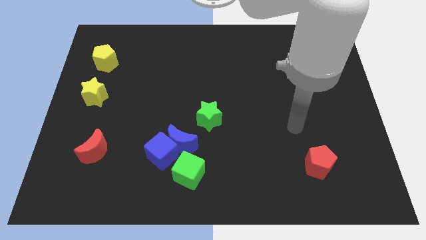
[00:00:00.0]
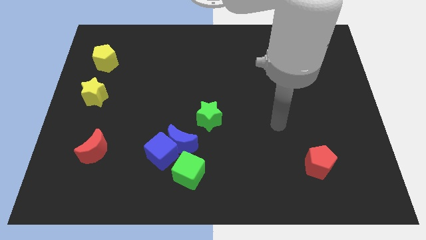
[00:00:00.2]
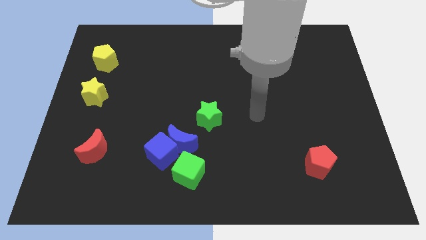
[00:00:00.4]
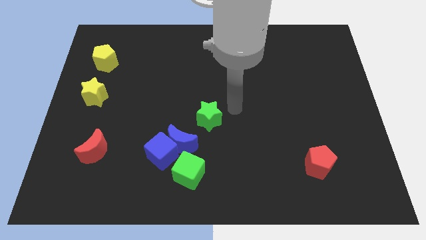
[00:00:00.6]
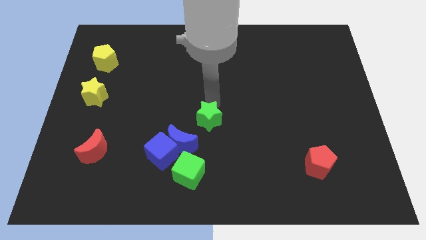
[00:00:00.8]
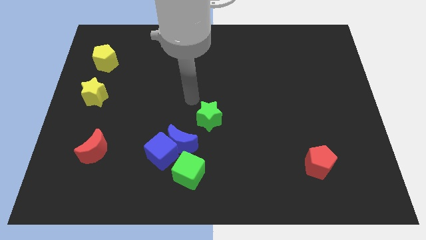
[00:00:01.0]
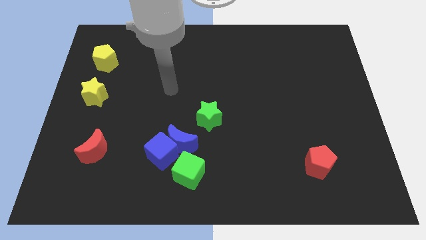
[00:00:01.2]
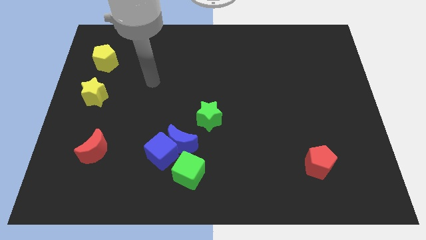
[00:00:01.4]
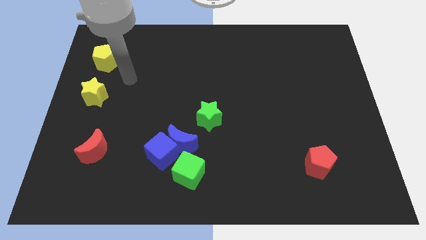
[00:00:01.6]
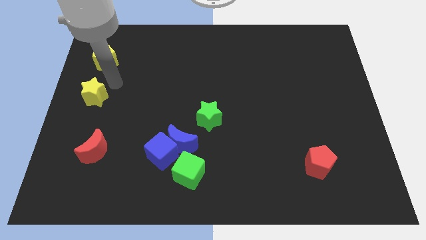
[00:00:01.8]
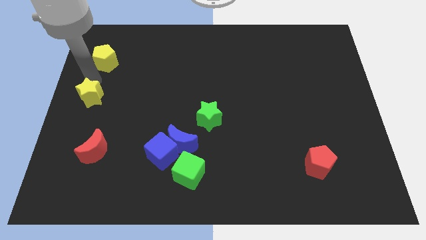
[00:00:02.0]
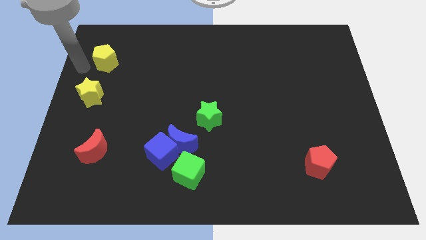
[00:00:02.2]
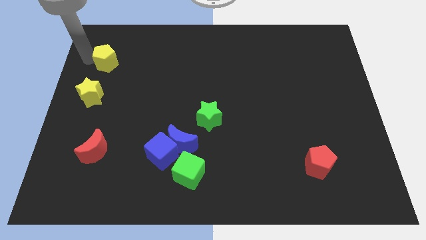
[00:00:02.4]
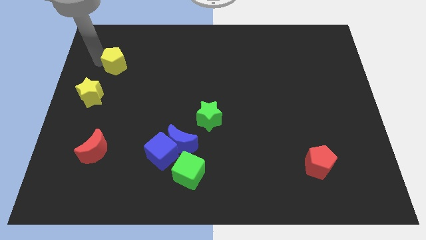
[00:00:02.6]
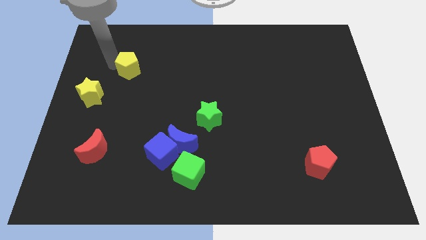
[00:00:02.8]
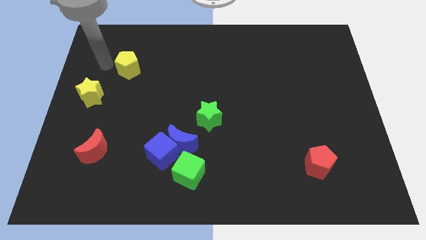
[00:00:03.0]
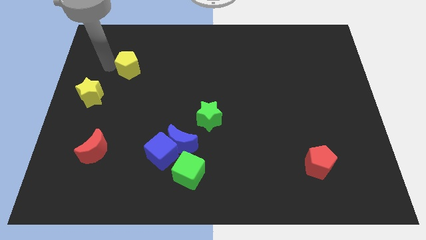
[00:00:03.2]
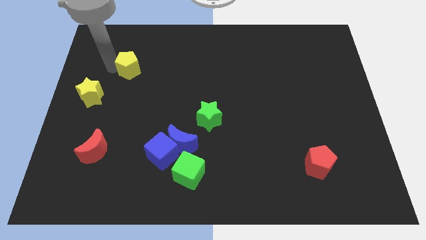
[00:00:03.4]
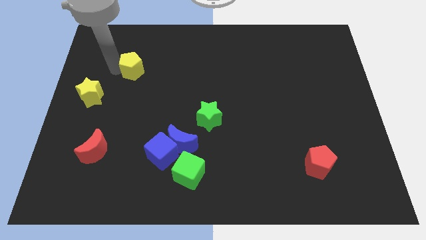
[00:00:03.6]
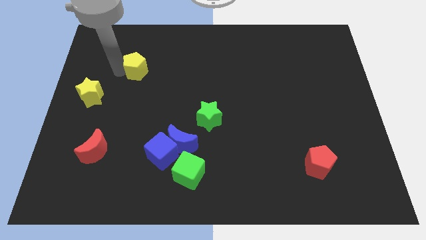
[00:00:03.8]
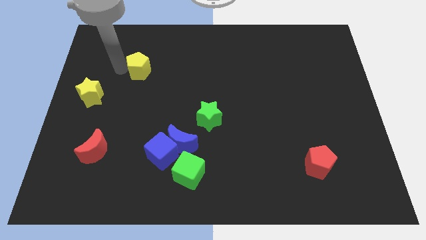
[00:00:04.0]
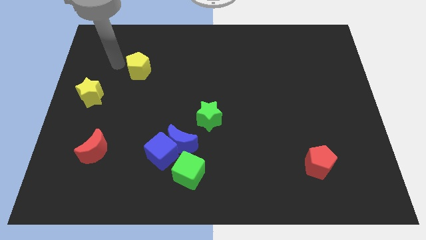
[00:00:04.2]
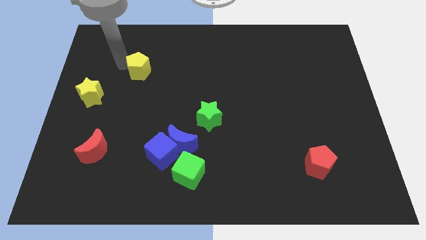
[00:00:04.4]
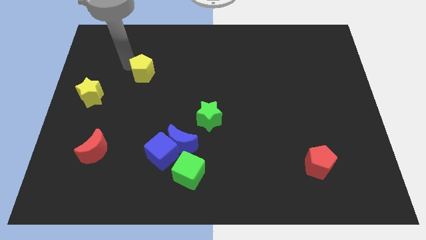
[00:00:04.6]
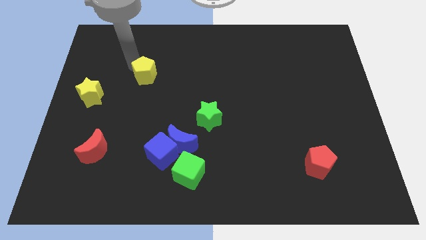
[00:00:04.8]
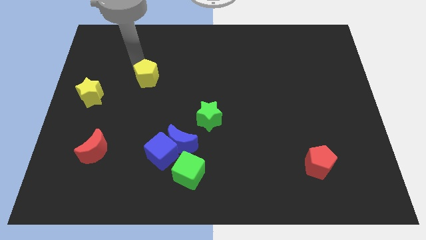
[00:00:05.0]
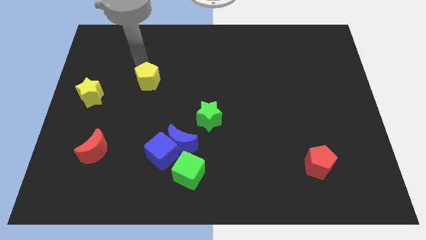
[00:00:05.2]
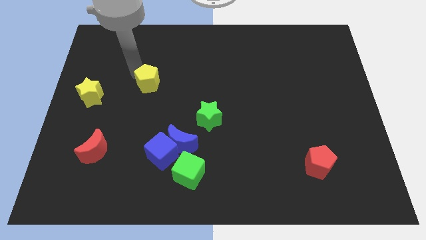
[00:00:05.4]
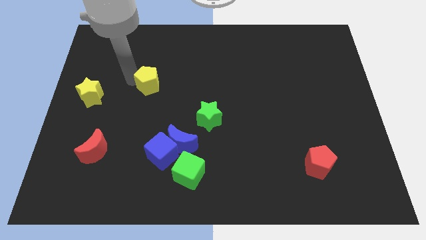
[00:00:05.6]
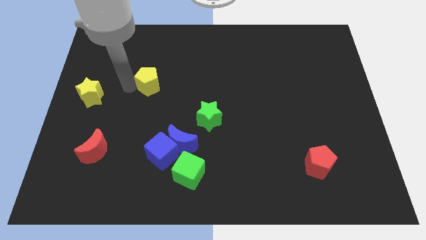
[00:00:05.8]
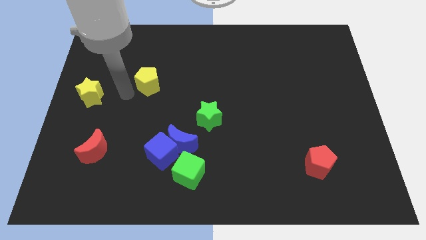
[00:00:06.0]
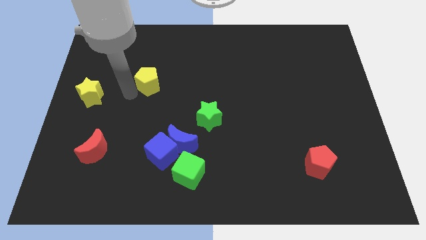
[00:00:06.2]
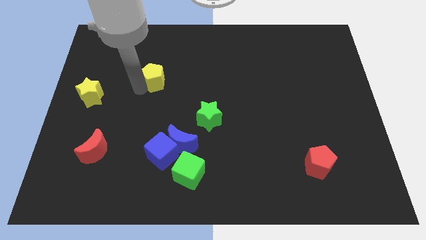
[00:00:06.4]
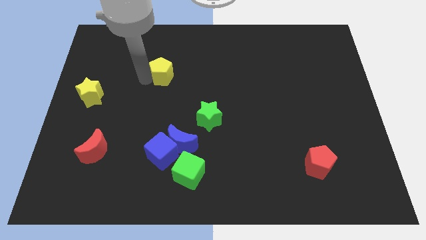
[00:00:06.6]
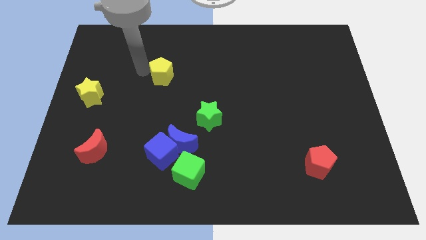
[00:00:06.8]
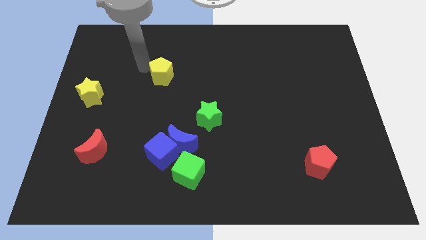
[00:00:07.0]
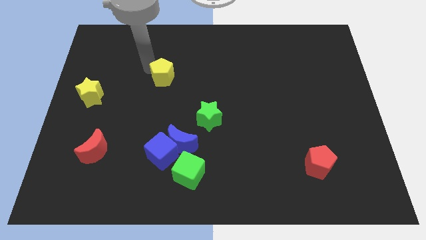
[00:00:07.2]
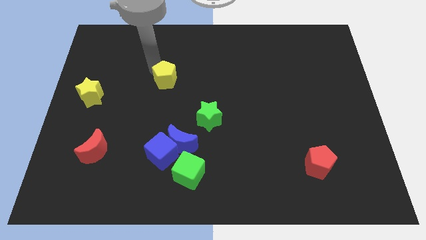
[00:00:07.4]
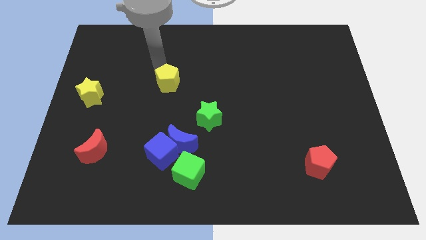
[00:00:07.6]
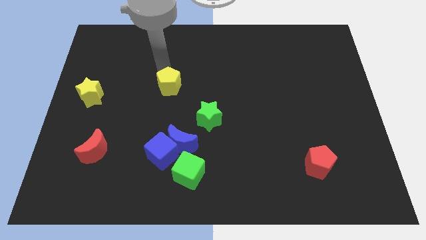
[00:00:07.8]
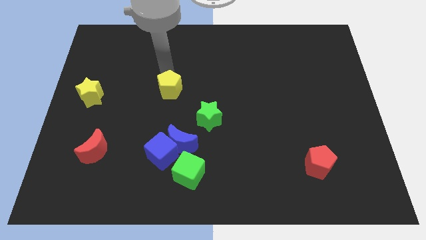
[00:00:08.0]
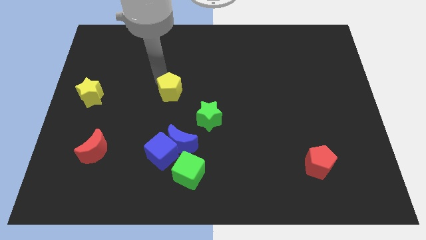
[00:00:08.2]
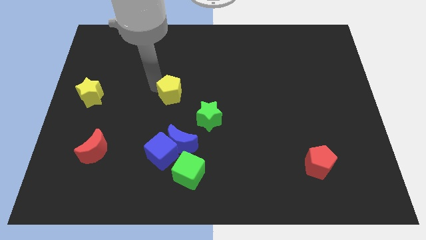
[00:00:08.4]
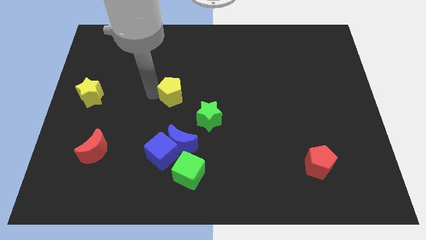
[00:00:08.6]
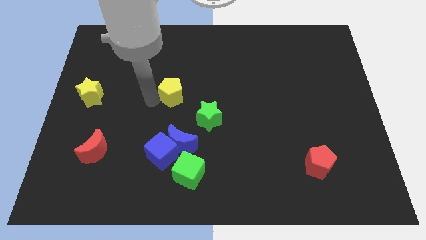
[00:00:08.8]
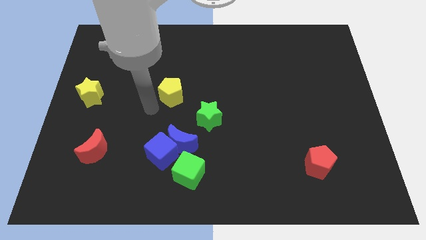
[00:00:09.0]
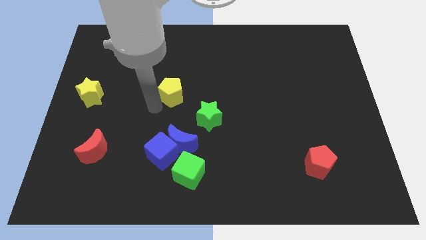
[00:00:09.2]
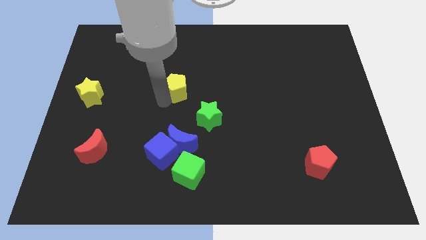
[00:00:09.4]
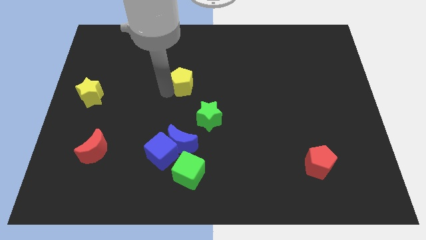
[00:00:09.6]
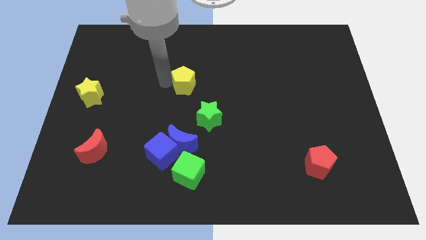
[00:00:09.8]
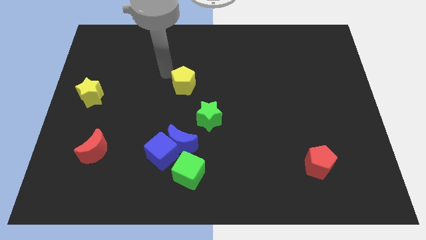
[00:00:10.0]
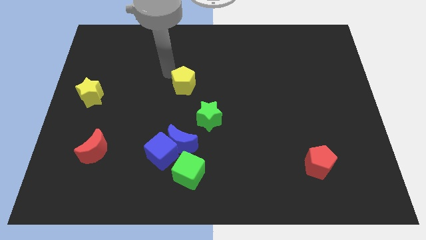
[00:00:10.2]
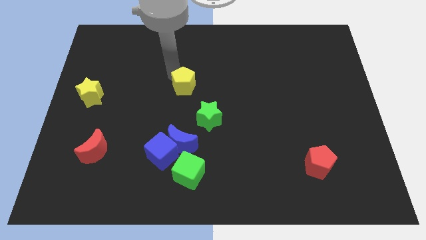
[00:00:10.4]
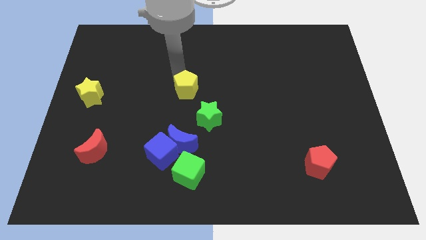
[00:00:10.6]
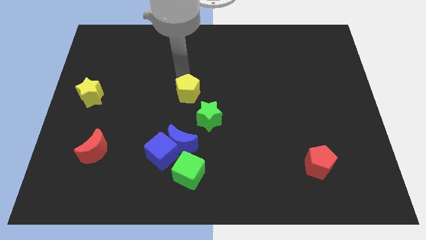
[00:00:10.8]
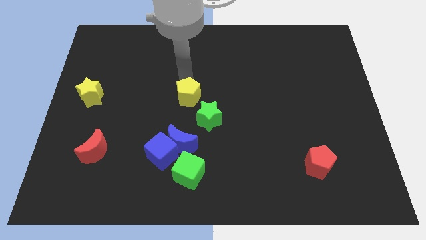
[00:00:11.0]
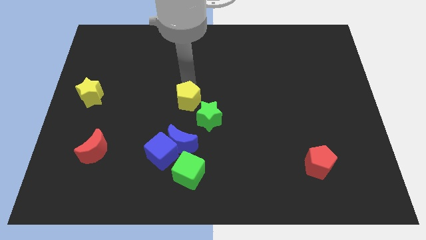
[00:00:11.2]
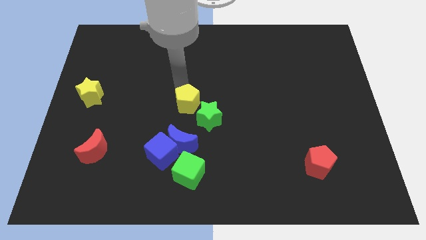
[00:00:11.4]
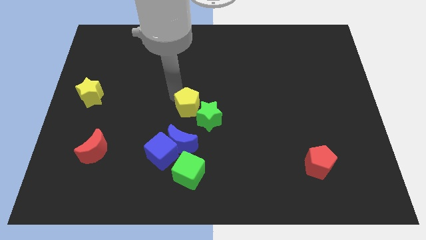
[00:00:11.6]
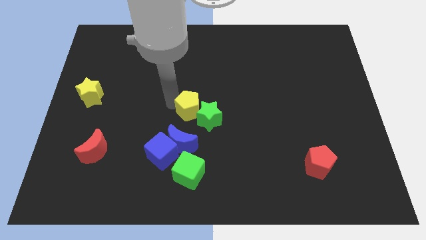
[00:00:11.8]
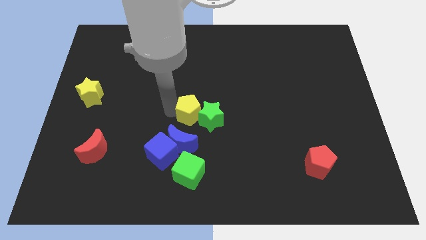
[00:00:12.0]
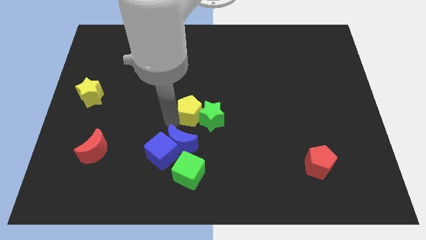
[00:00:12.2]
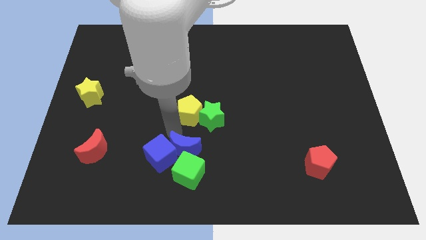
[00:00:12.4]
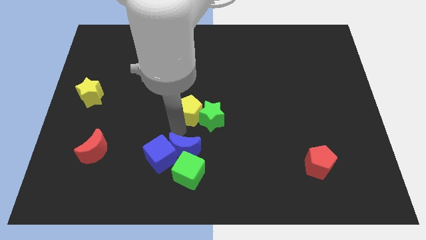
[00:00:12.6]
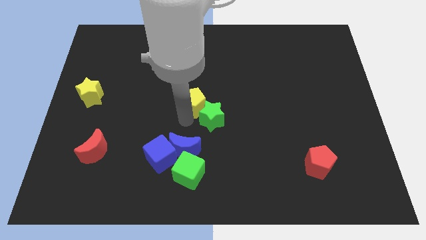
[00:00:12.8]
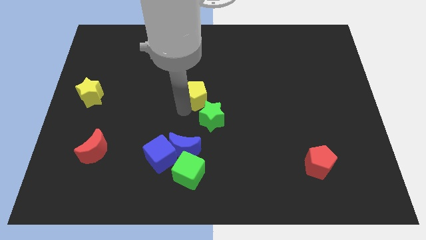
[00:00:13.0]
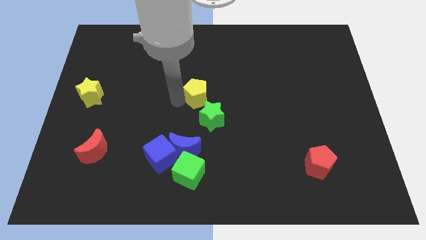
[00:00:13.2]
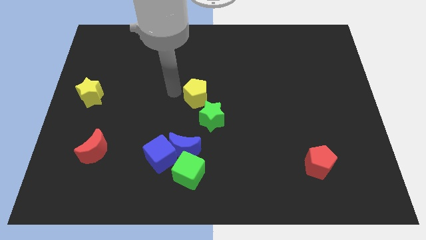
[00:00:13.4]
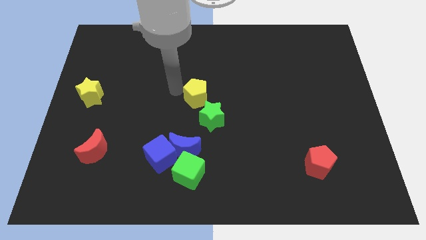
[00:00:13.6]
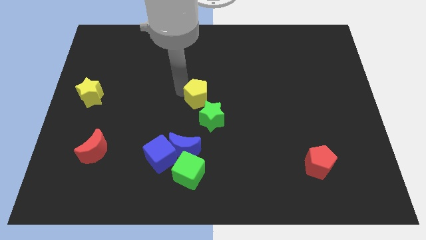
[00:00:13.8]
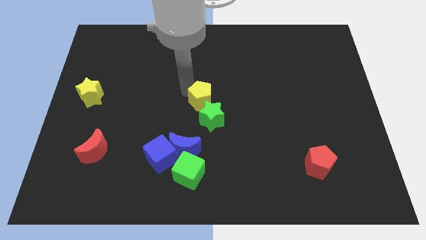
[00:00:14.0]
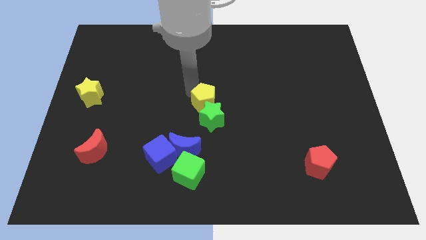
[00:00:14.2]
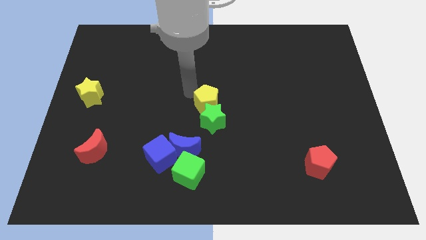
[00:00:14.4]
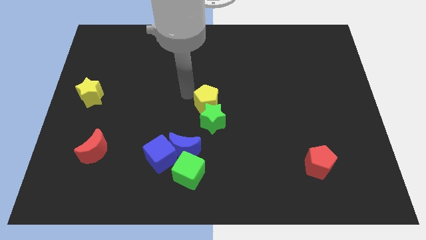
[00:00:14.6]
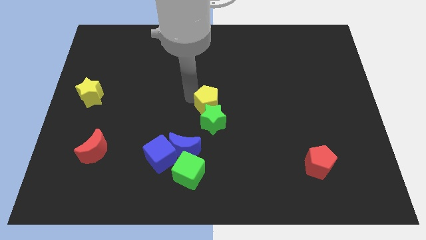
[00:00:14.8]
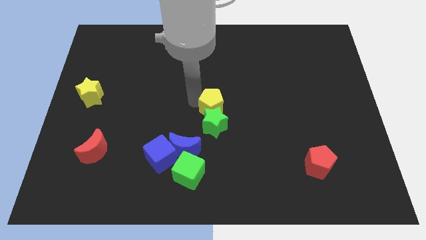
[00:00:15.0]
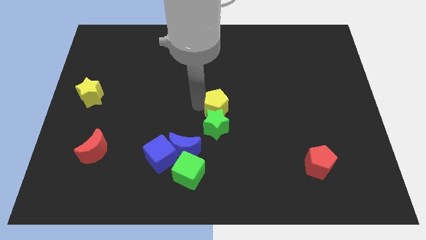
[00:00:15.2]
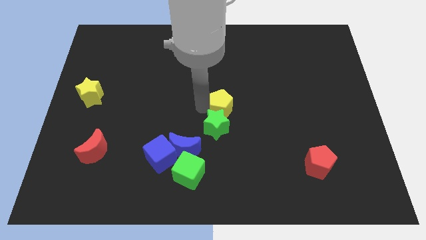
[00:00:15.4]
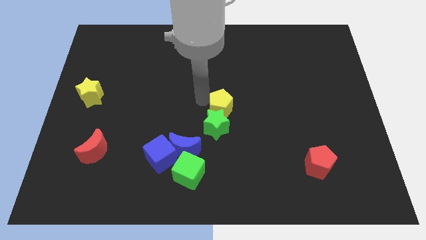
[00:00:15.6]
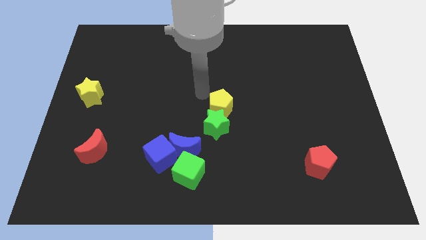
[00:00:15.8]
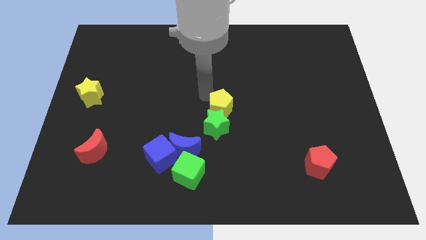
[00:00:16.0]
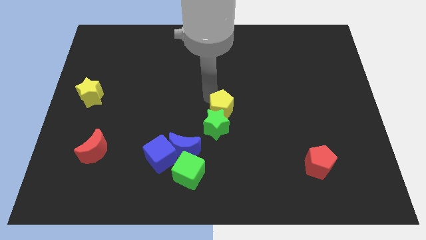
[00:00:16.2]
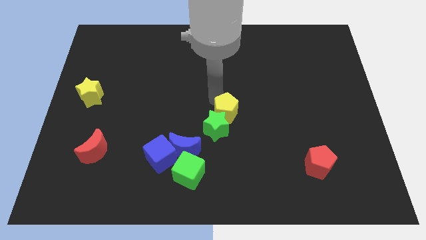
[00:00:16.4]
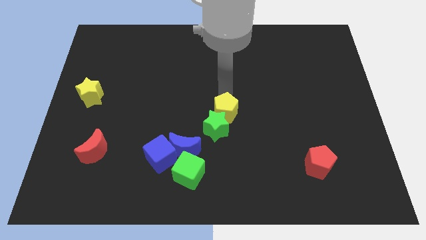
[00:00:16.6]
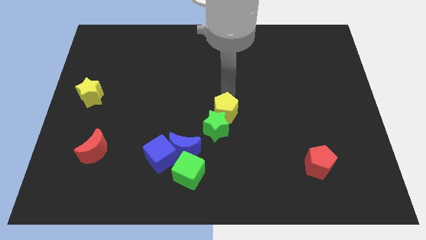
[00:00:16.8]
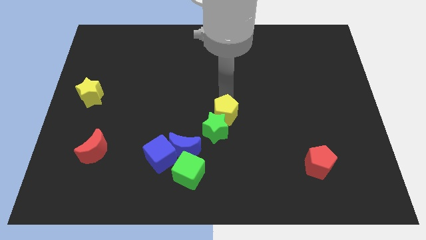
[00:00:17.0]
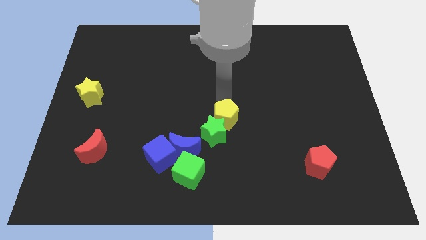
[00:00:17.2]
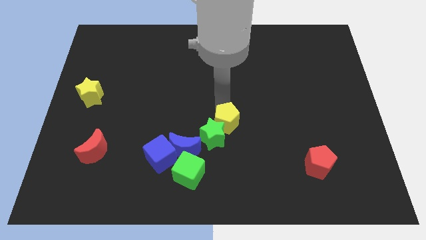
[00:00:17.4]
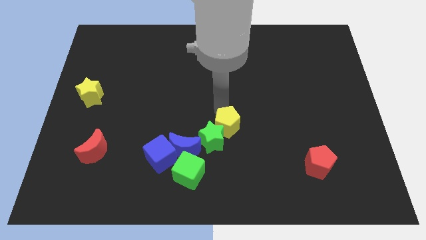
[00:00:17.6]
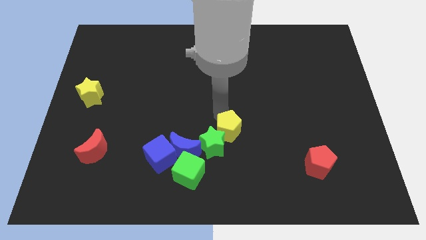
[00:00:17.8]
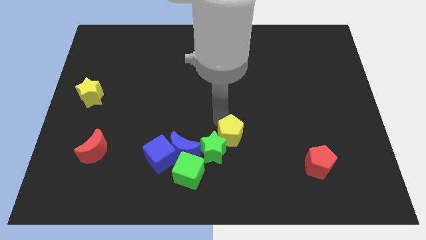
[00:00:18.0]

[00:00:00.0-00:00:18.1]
push the yellow pentagon diagonally up and to the right of the green cube
